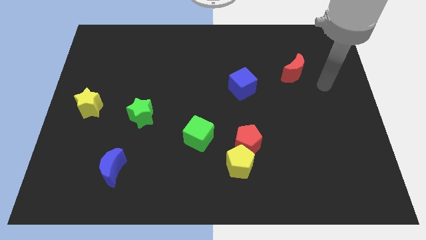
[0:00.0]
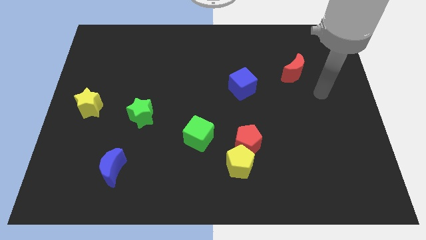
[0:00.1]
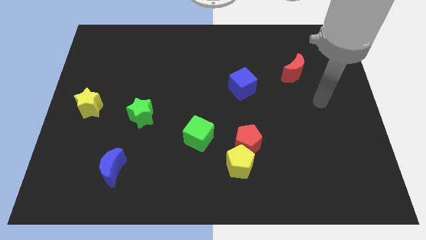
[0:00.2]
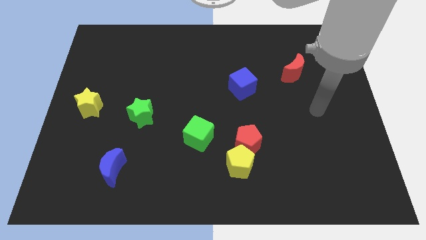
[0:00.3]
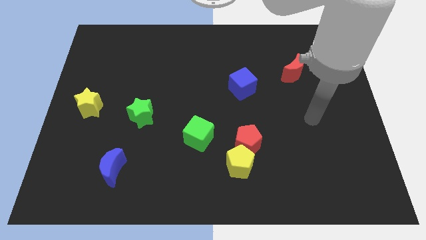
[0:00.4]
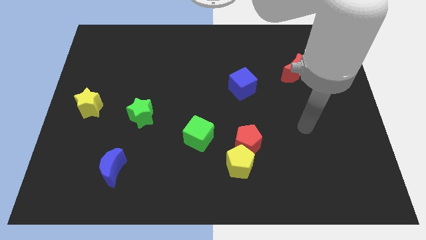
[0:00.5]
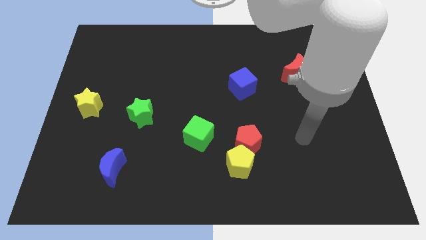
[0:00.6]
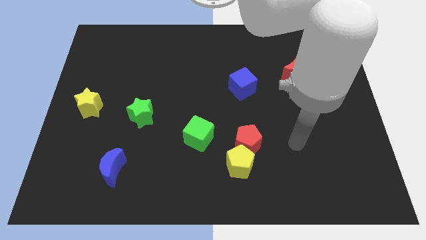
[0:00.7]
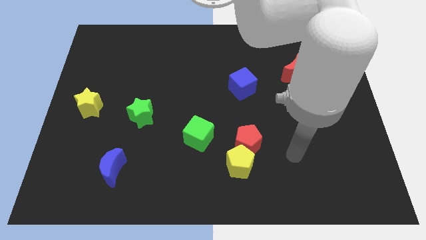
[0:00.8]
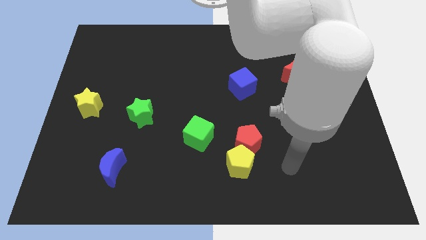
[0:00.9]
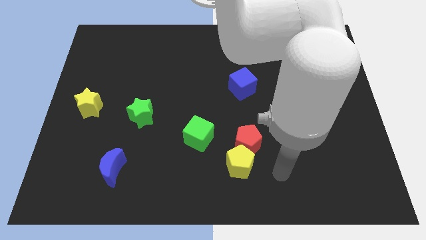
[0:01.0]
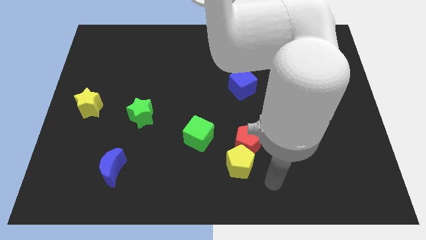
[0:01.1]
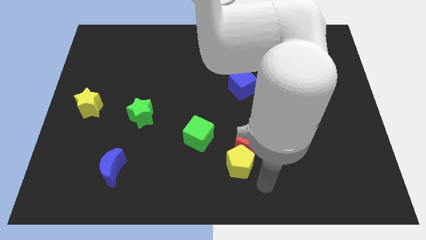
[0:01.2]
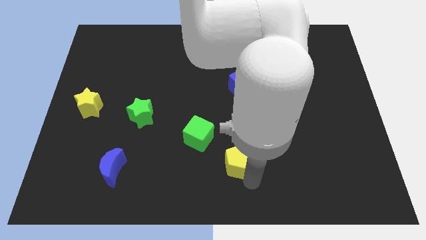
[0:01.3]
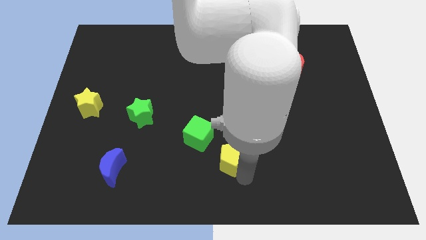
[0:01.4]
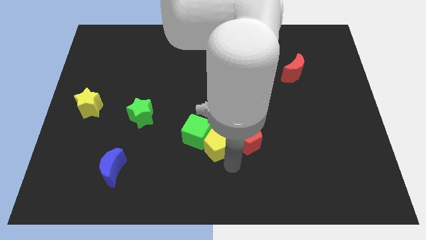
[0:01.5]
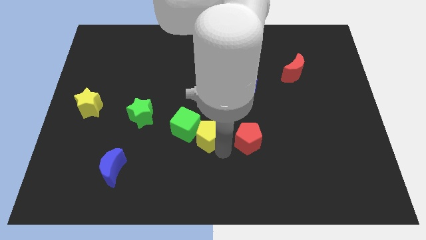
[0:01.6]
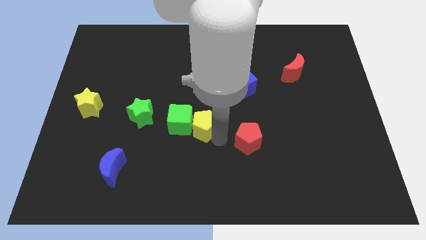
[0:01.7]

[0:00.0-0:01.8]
pull the red pentagon apart from the yellow pentagon

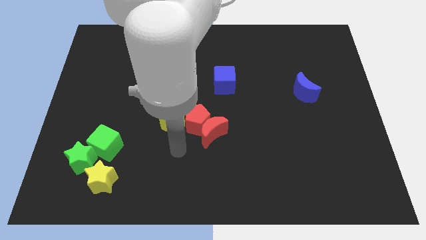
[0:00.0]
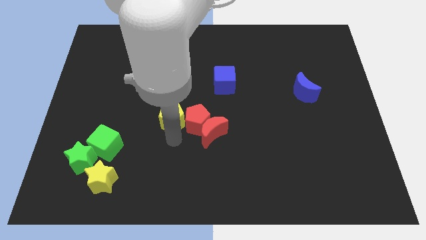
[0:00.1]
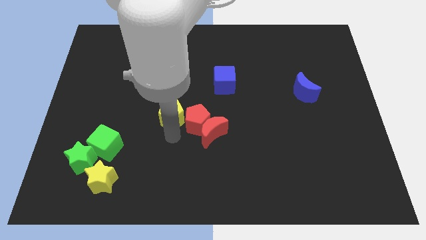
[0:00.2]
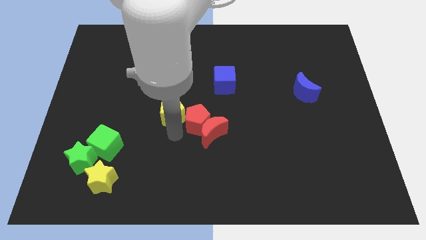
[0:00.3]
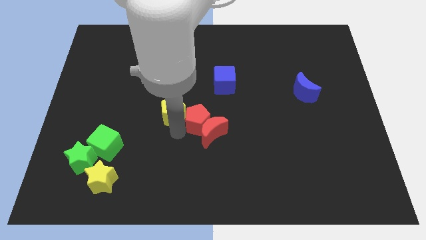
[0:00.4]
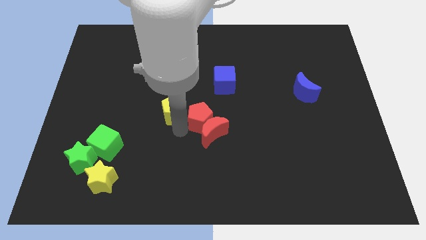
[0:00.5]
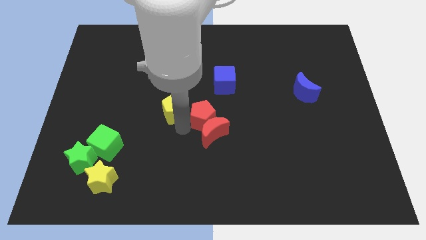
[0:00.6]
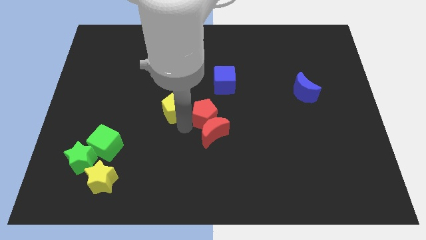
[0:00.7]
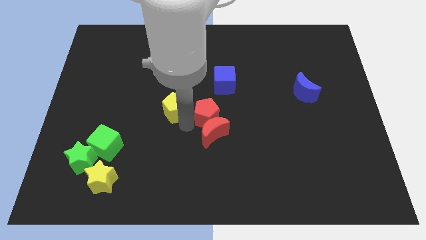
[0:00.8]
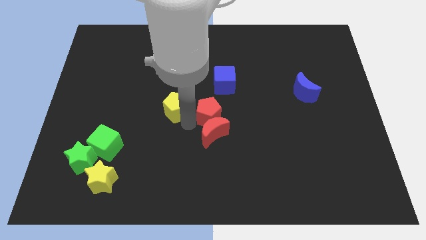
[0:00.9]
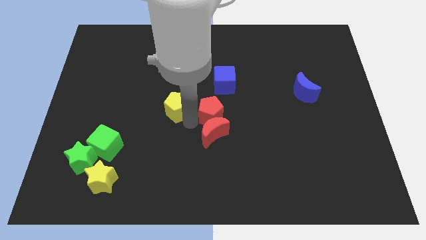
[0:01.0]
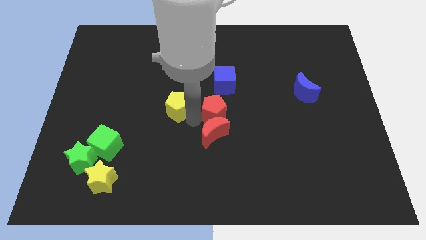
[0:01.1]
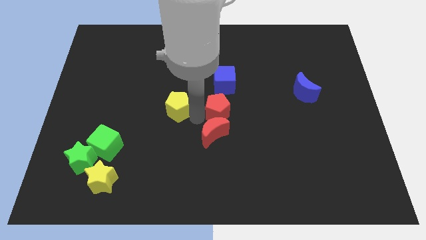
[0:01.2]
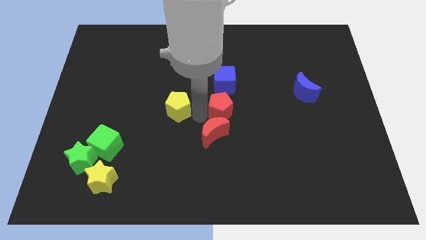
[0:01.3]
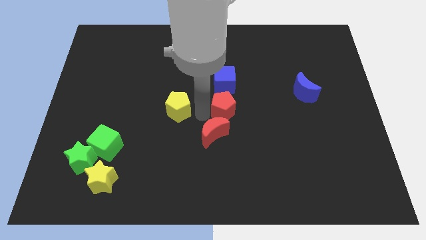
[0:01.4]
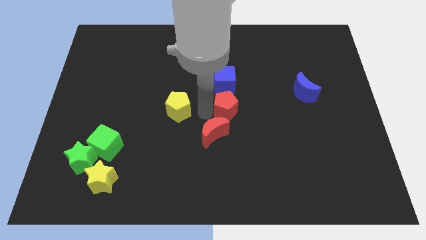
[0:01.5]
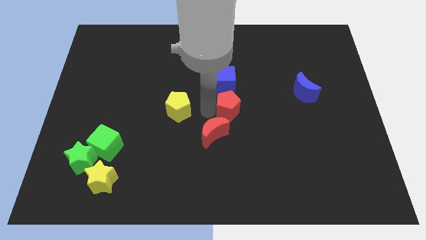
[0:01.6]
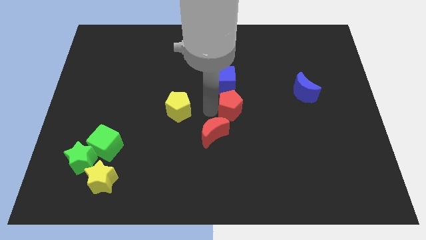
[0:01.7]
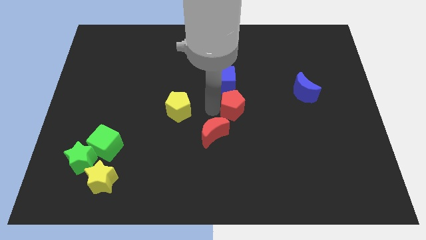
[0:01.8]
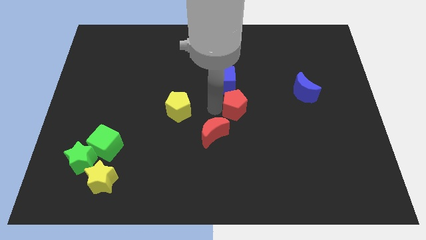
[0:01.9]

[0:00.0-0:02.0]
move the red pentagon away from the red moon and yellow pentagon

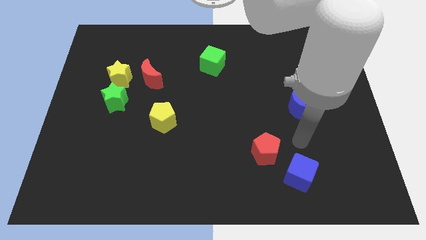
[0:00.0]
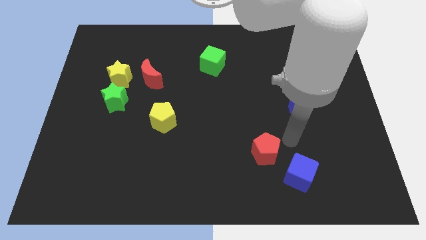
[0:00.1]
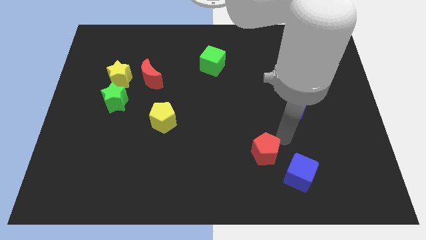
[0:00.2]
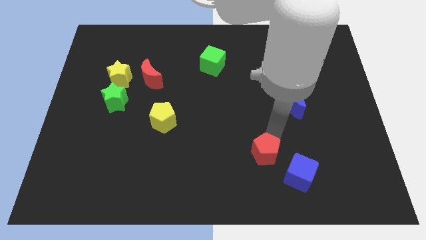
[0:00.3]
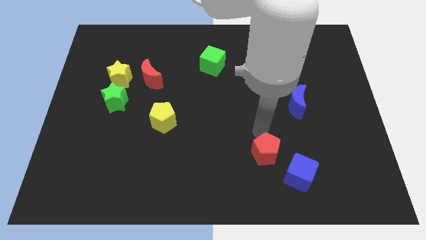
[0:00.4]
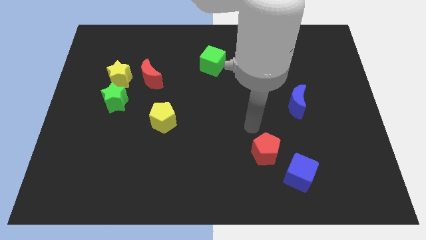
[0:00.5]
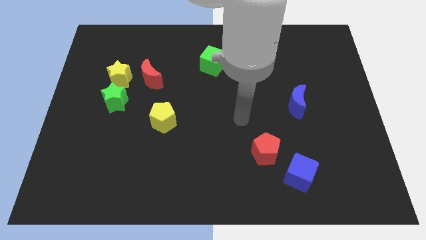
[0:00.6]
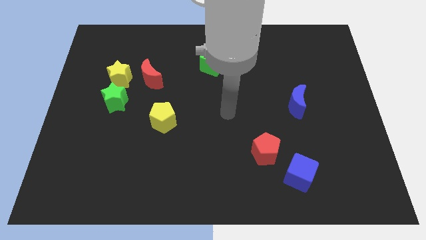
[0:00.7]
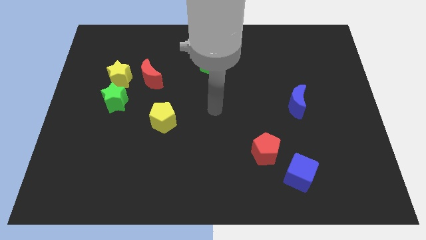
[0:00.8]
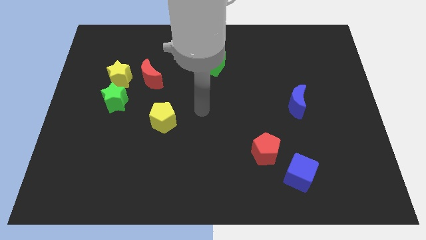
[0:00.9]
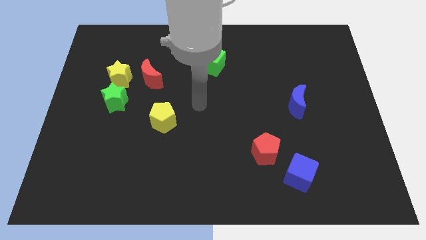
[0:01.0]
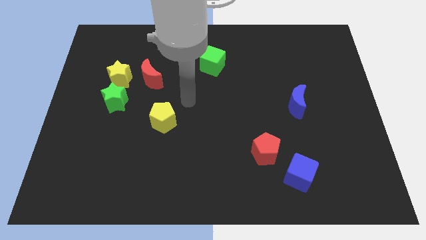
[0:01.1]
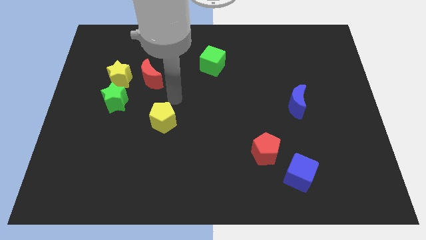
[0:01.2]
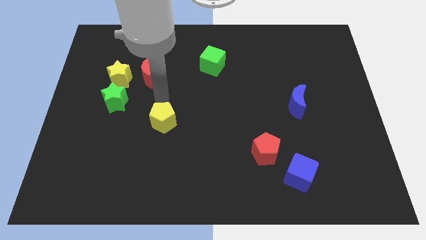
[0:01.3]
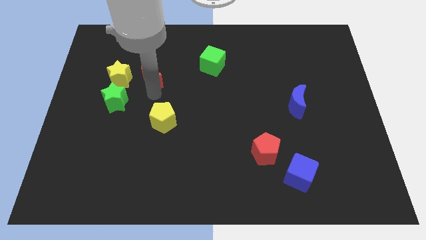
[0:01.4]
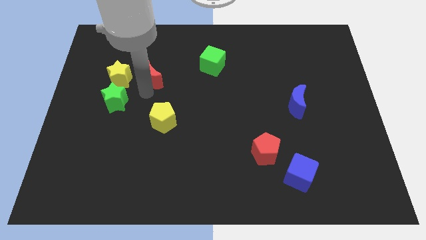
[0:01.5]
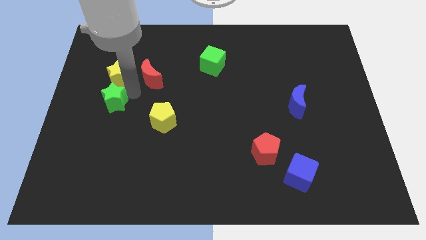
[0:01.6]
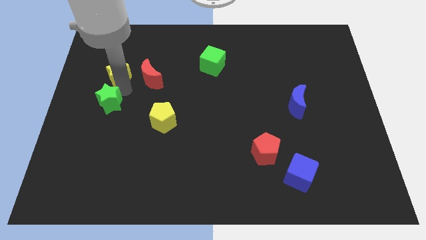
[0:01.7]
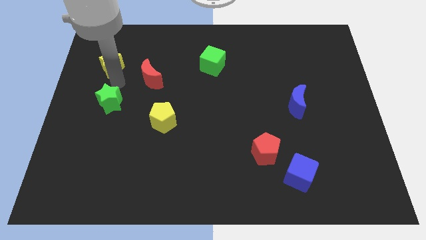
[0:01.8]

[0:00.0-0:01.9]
move the green star away from the yellow star

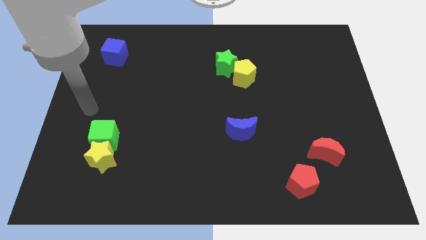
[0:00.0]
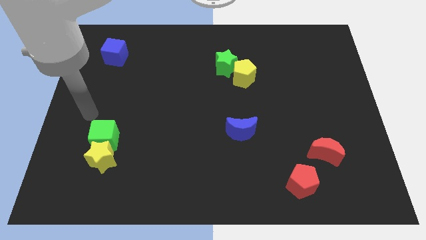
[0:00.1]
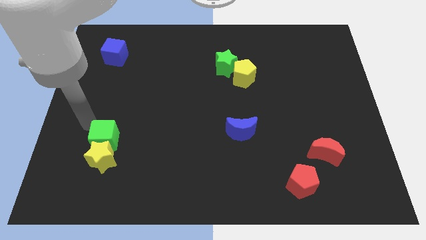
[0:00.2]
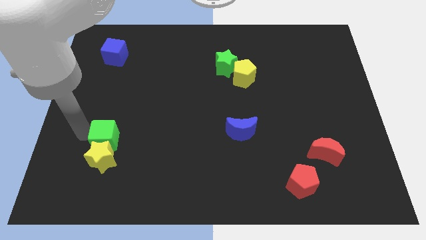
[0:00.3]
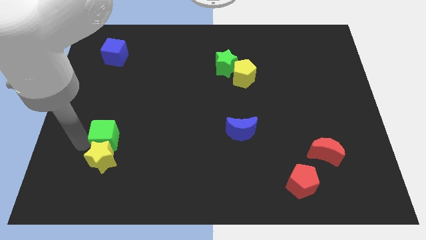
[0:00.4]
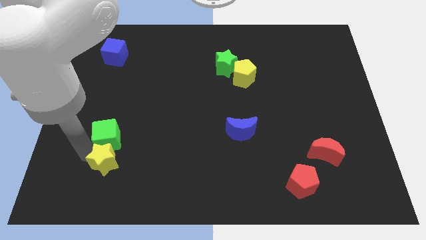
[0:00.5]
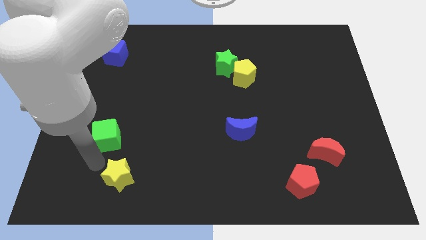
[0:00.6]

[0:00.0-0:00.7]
separate the green cube from the yellow star

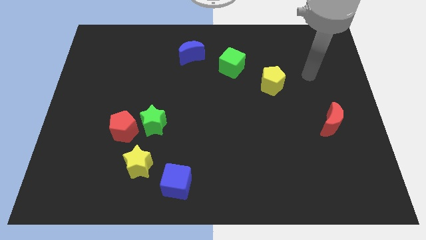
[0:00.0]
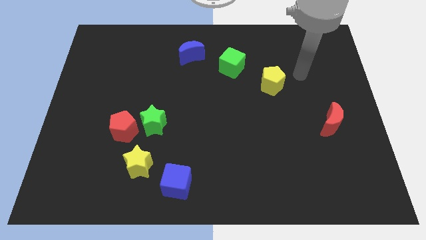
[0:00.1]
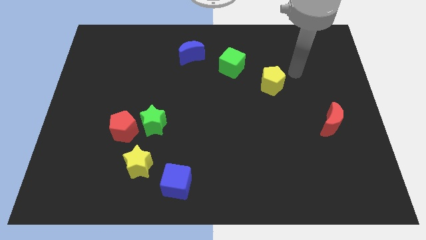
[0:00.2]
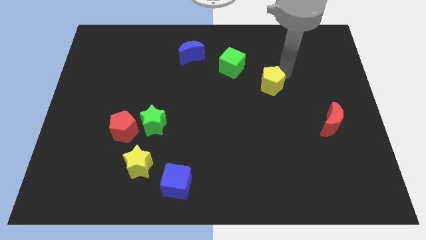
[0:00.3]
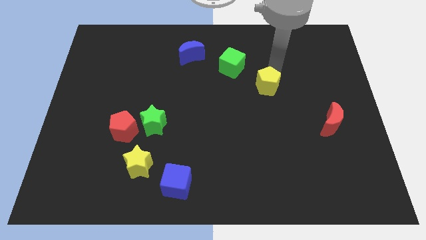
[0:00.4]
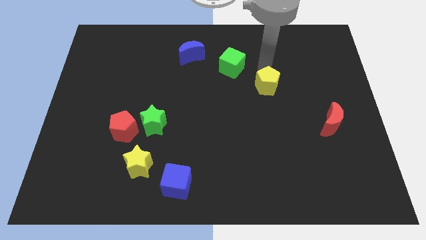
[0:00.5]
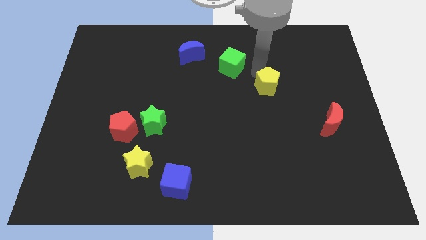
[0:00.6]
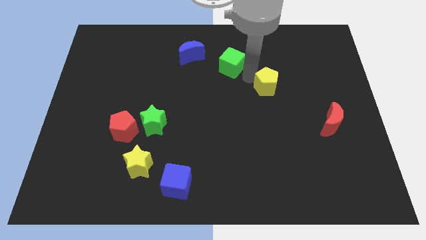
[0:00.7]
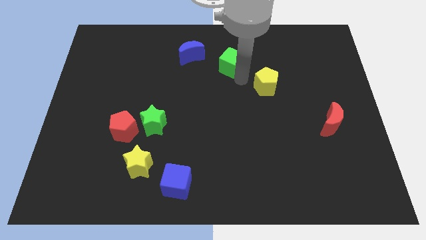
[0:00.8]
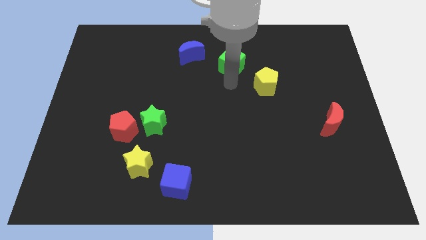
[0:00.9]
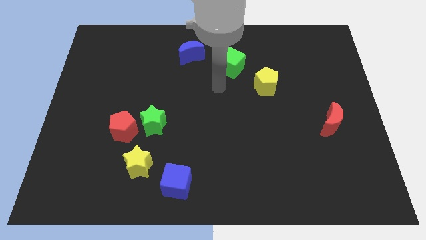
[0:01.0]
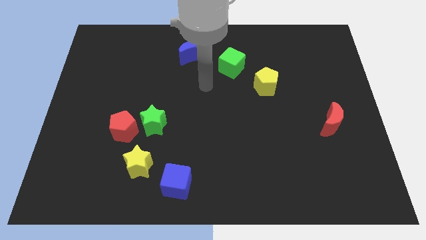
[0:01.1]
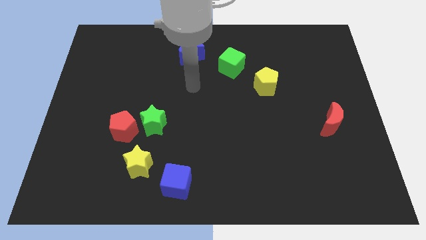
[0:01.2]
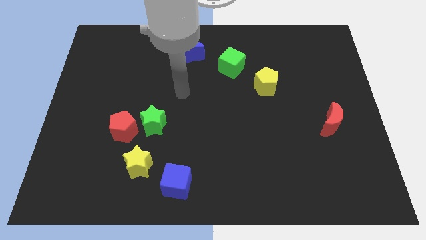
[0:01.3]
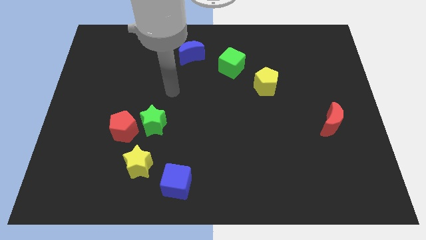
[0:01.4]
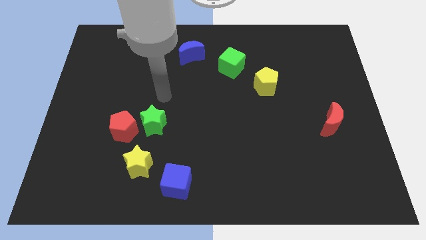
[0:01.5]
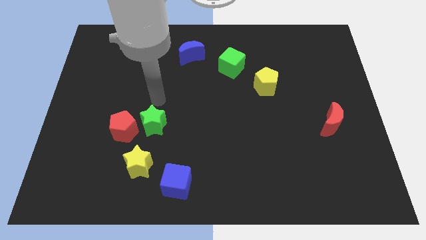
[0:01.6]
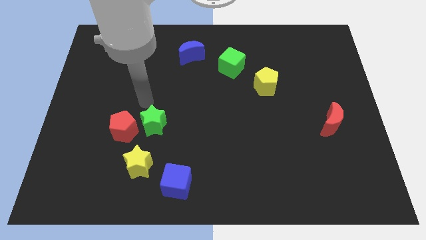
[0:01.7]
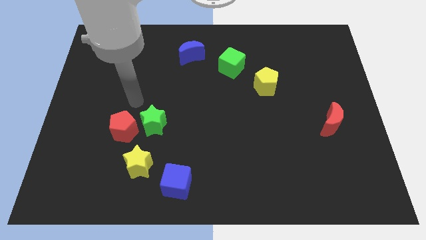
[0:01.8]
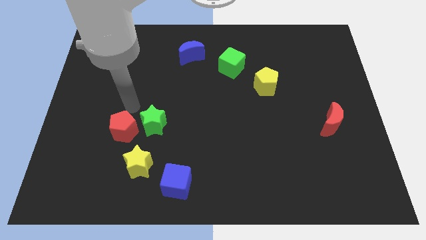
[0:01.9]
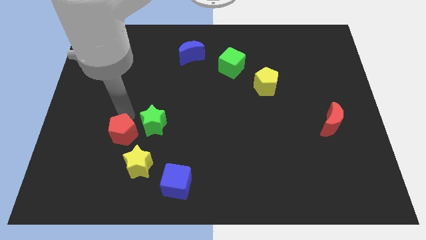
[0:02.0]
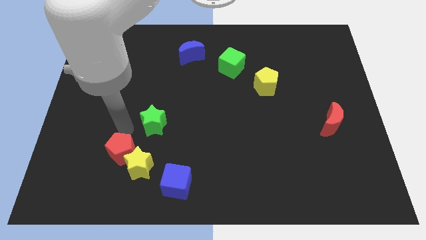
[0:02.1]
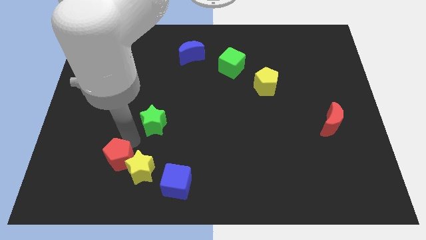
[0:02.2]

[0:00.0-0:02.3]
separate the green star from the red pentagon

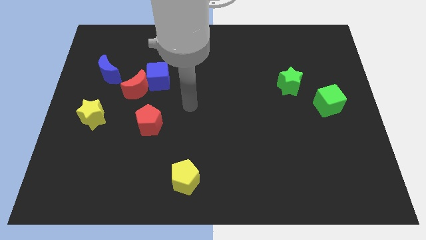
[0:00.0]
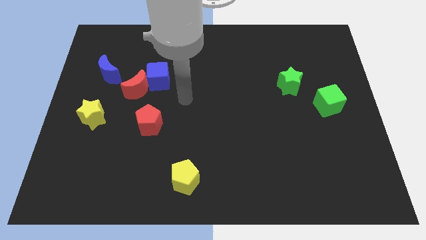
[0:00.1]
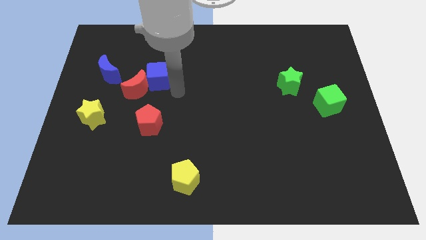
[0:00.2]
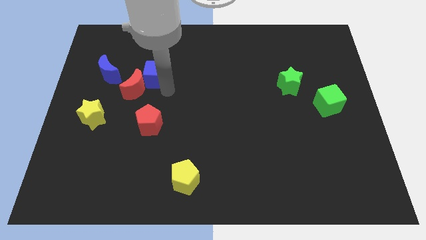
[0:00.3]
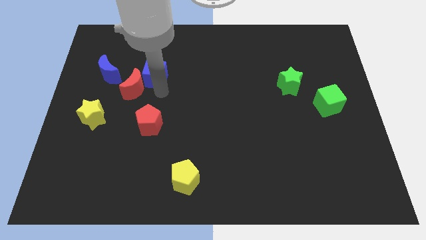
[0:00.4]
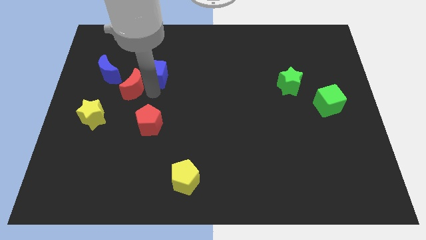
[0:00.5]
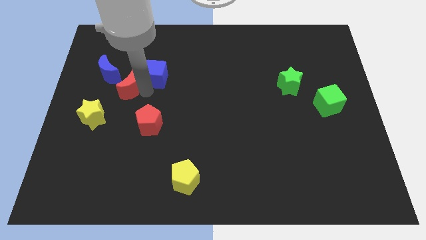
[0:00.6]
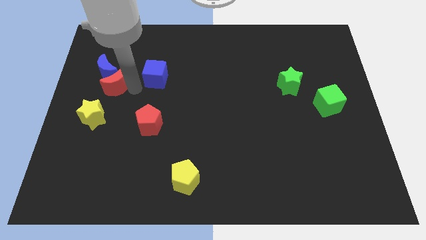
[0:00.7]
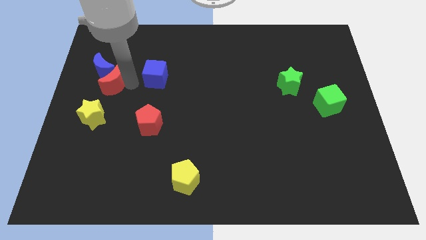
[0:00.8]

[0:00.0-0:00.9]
separate the blue cube from the red moon
